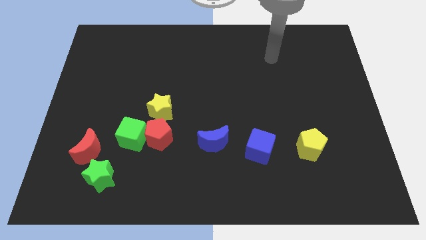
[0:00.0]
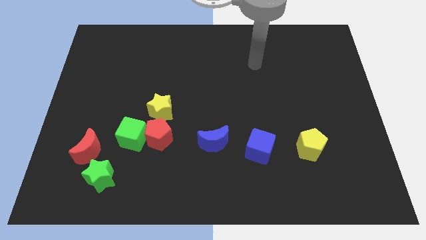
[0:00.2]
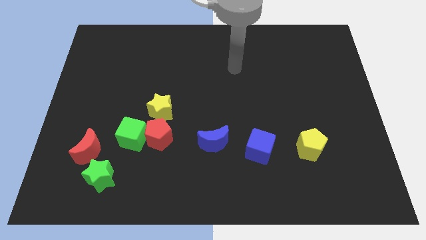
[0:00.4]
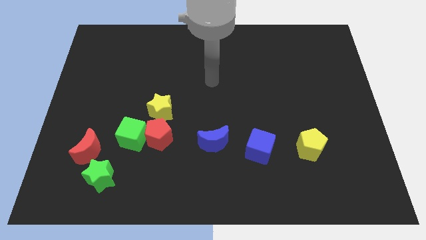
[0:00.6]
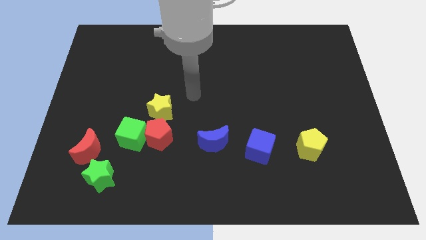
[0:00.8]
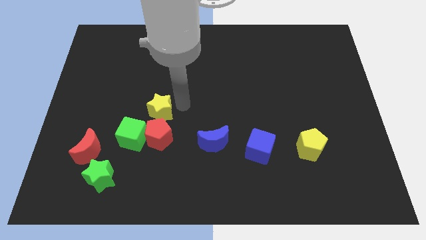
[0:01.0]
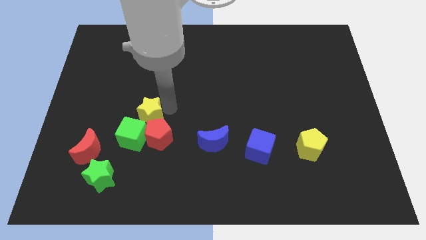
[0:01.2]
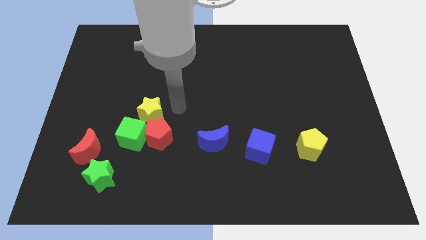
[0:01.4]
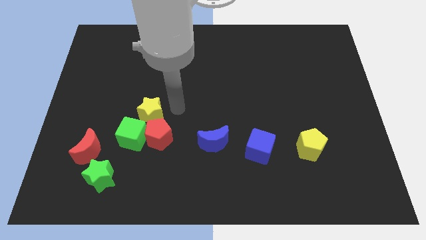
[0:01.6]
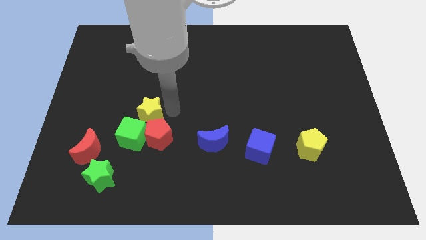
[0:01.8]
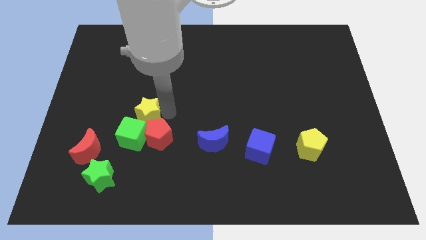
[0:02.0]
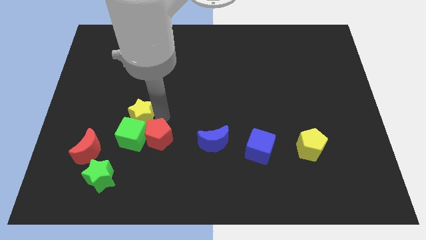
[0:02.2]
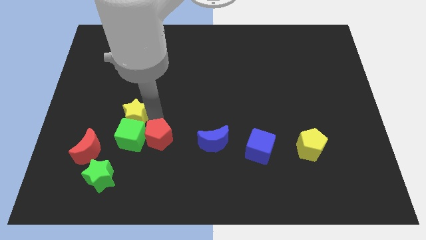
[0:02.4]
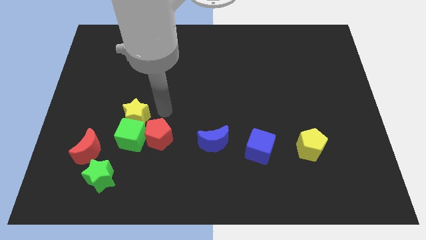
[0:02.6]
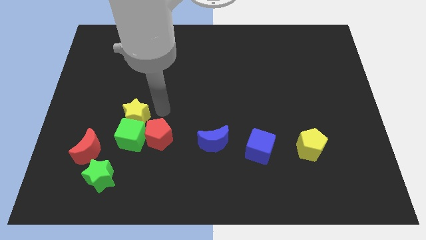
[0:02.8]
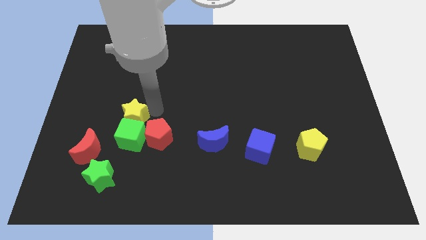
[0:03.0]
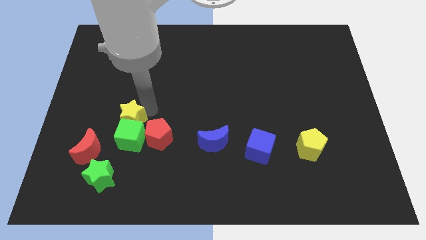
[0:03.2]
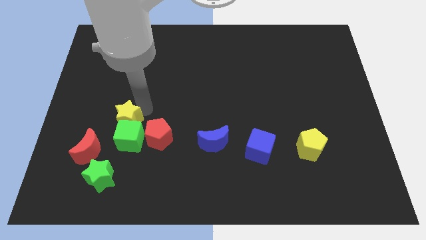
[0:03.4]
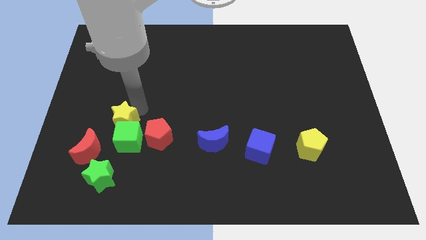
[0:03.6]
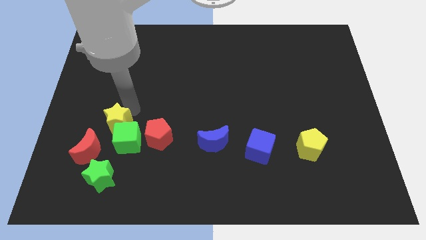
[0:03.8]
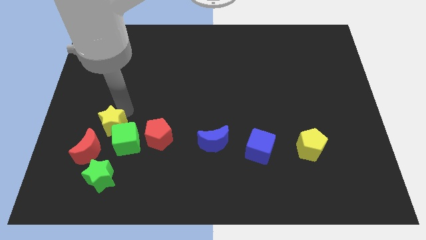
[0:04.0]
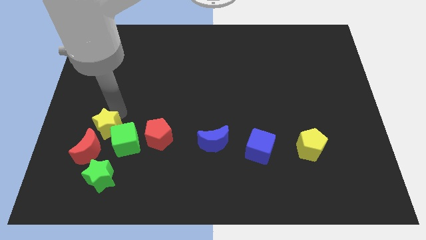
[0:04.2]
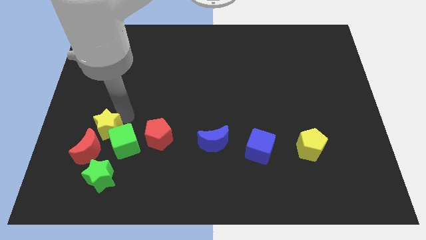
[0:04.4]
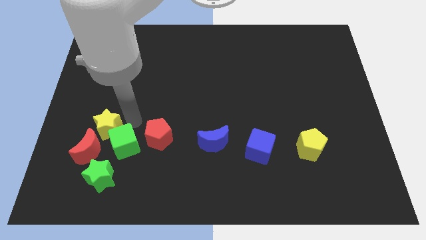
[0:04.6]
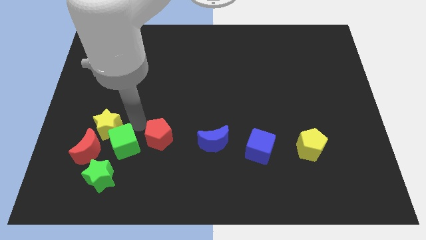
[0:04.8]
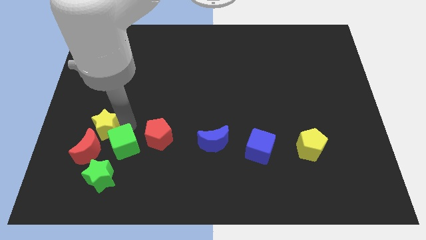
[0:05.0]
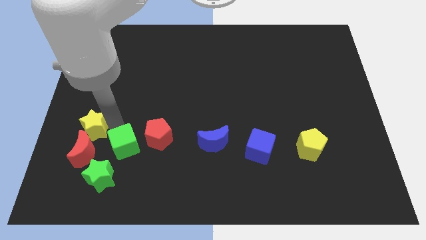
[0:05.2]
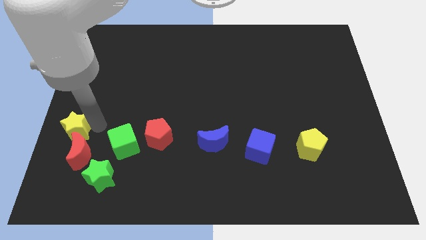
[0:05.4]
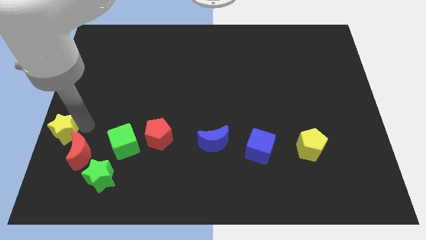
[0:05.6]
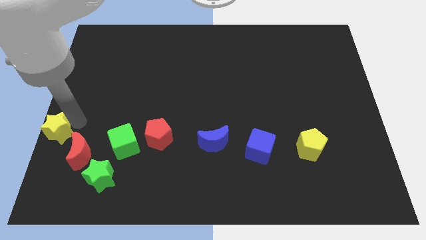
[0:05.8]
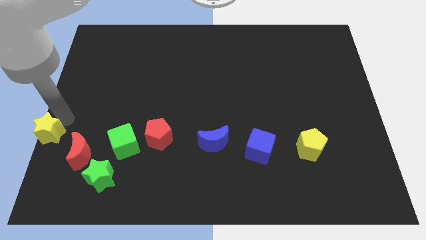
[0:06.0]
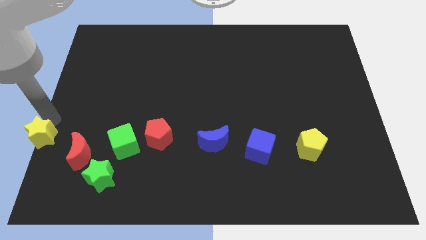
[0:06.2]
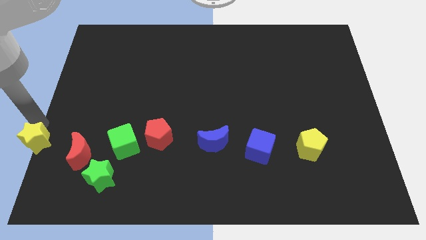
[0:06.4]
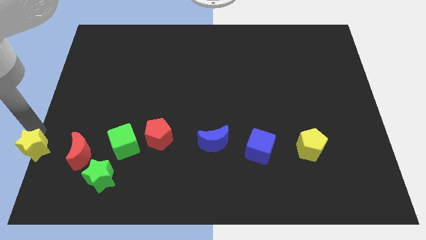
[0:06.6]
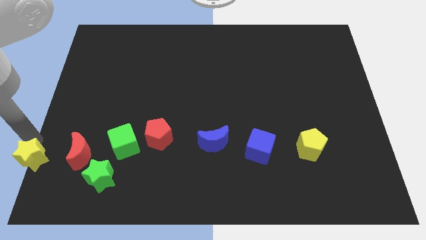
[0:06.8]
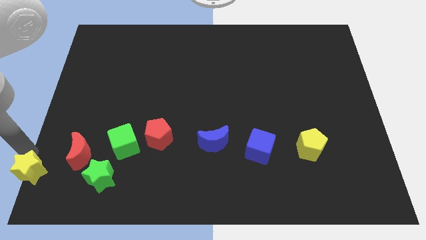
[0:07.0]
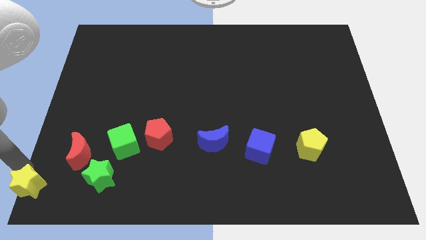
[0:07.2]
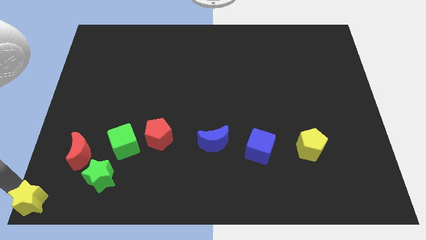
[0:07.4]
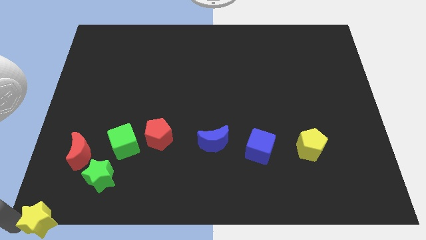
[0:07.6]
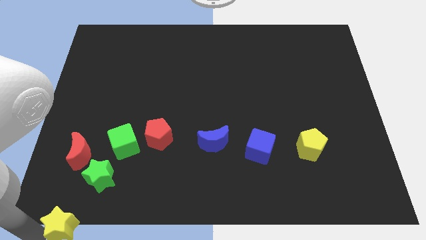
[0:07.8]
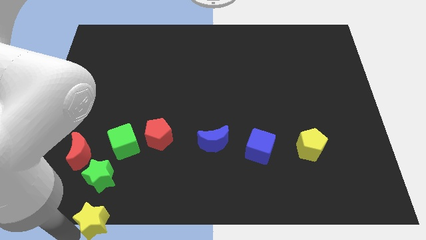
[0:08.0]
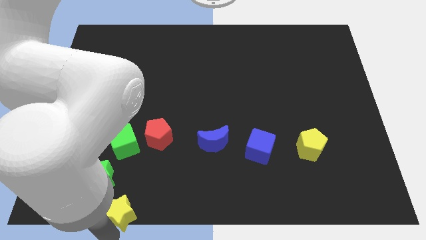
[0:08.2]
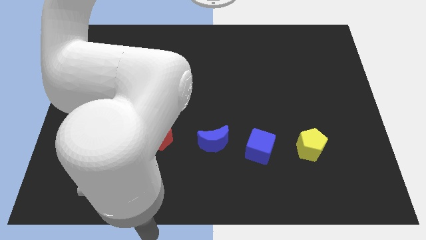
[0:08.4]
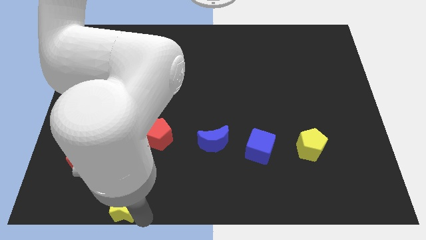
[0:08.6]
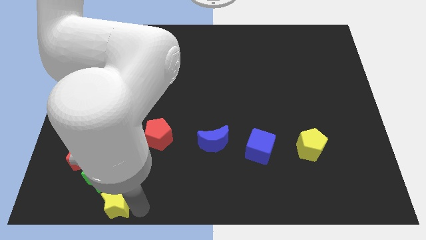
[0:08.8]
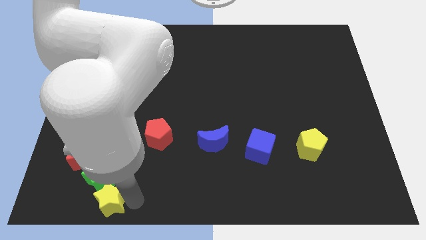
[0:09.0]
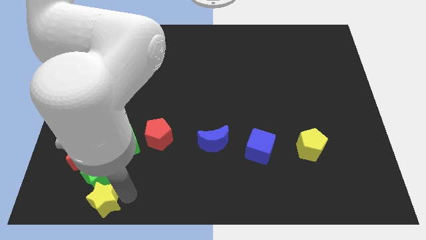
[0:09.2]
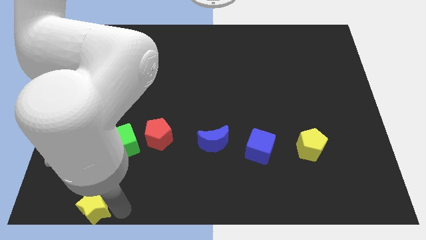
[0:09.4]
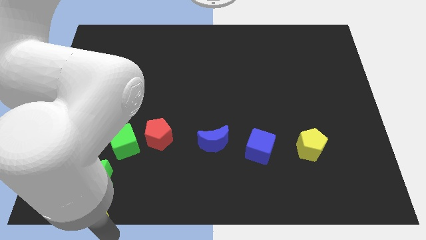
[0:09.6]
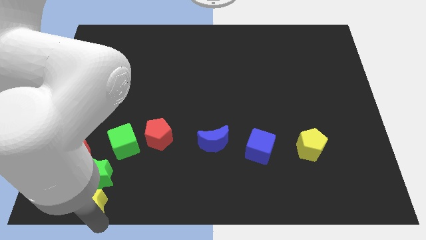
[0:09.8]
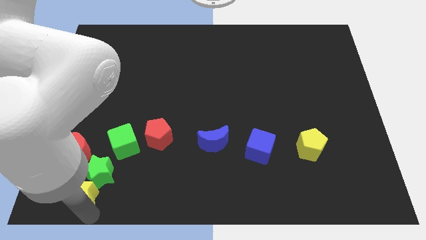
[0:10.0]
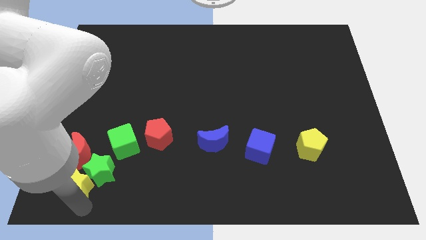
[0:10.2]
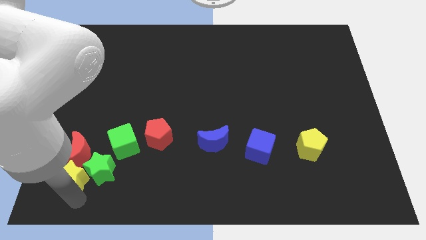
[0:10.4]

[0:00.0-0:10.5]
slide the yellow star to the top left side of the green star

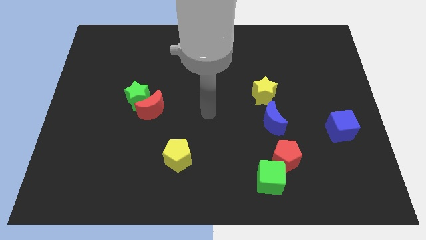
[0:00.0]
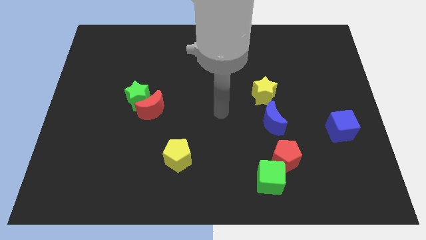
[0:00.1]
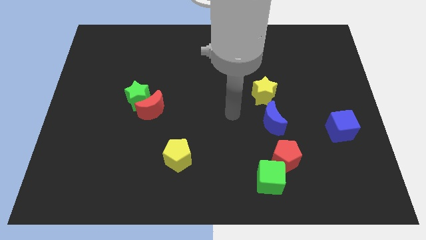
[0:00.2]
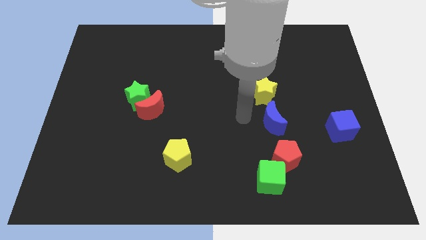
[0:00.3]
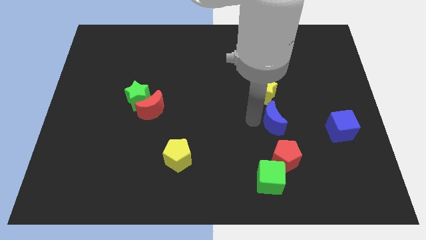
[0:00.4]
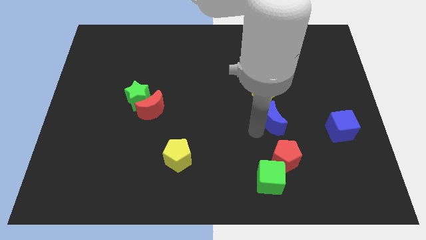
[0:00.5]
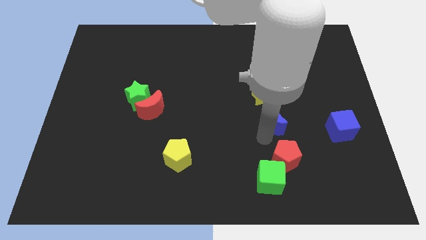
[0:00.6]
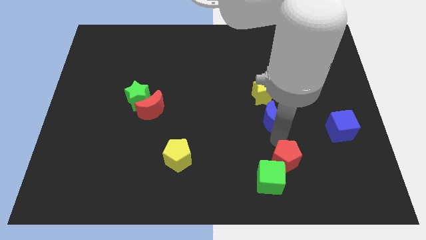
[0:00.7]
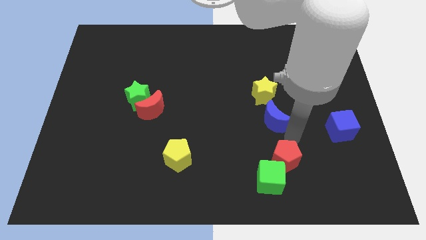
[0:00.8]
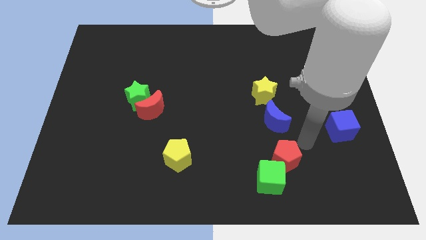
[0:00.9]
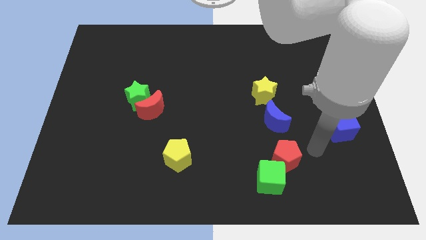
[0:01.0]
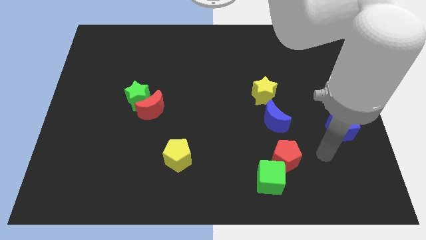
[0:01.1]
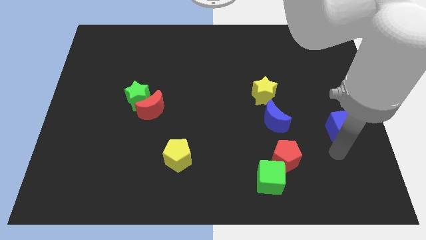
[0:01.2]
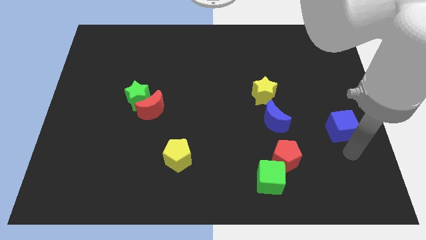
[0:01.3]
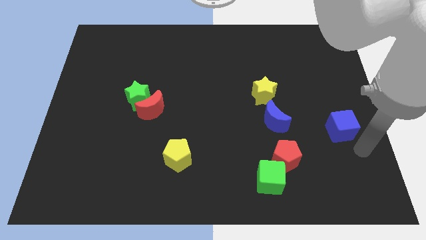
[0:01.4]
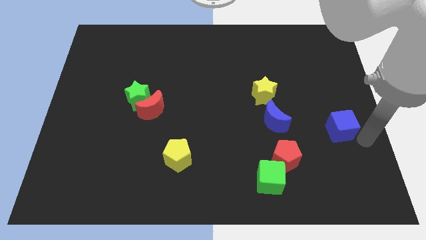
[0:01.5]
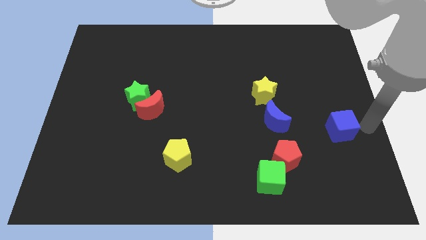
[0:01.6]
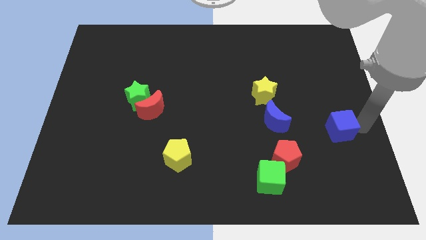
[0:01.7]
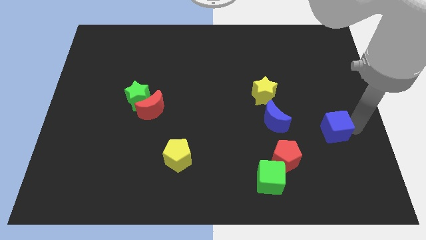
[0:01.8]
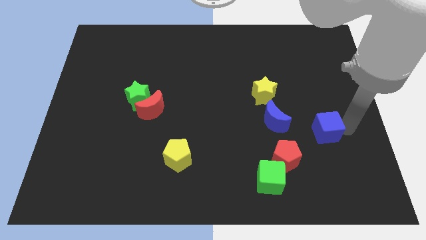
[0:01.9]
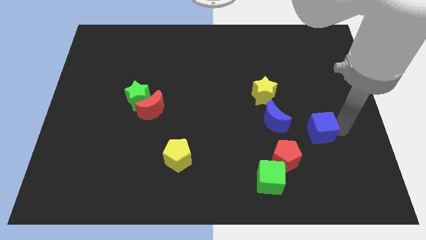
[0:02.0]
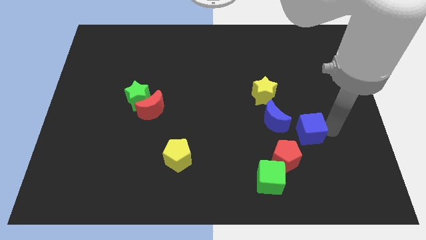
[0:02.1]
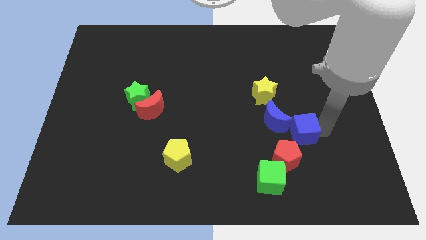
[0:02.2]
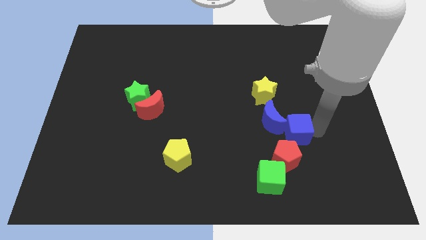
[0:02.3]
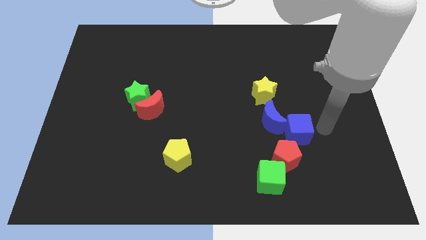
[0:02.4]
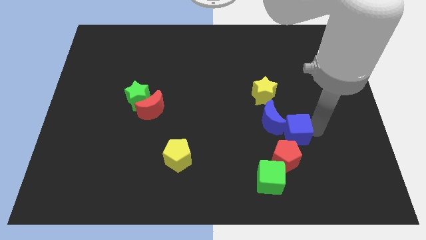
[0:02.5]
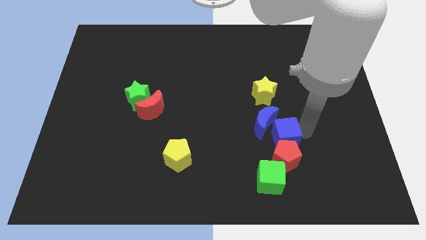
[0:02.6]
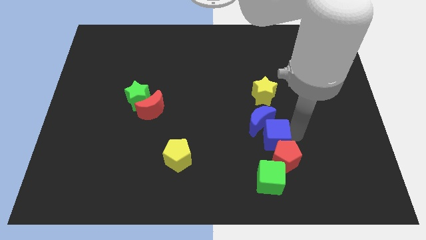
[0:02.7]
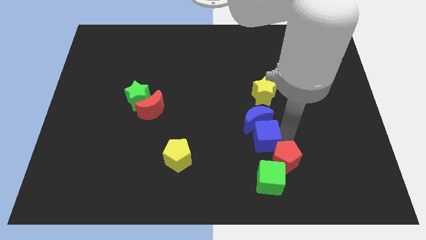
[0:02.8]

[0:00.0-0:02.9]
slide the blue cube diagonally down and to the left of the blue moon
